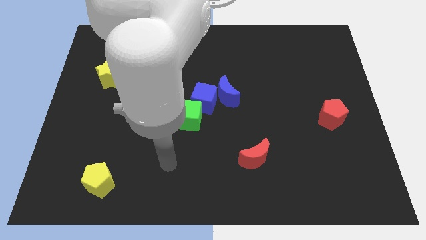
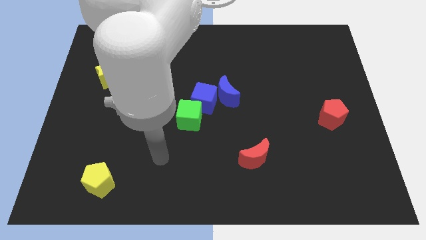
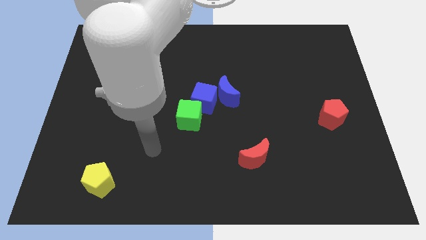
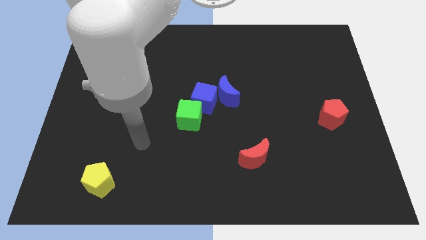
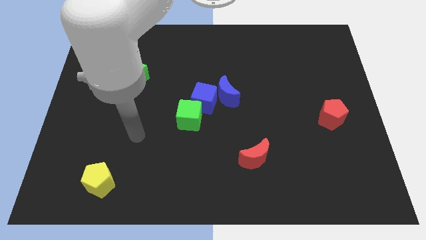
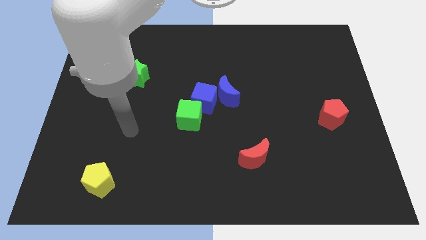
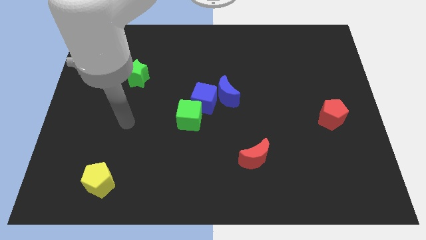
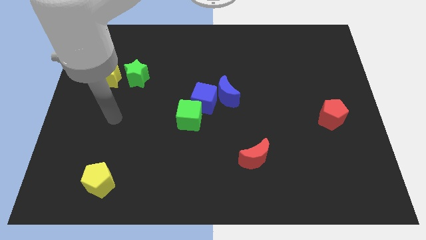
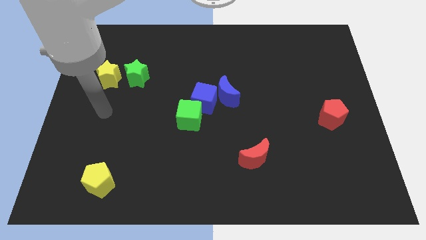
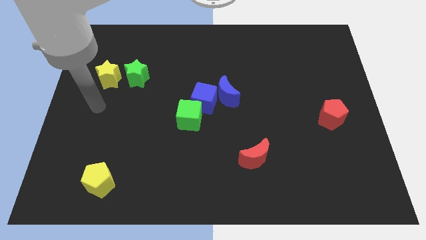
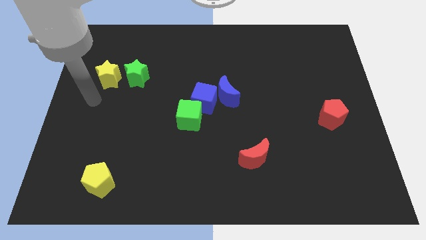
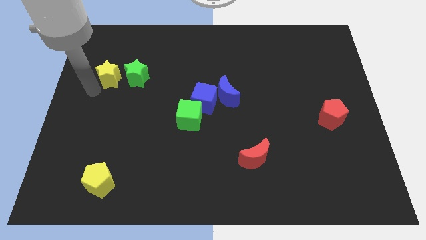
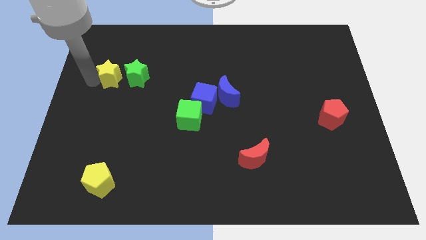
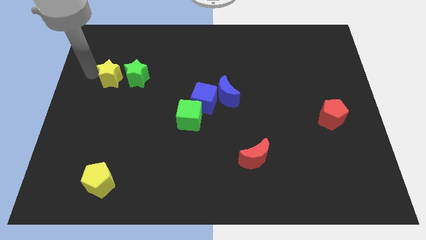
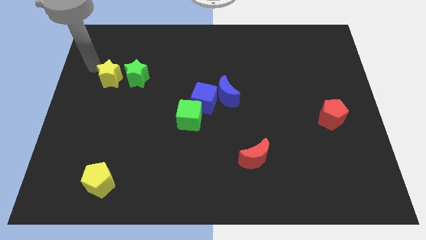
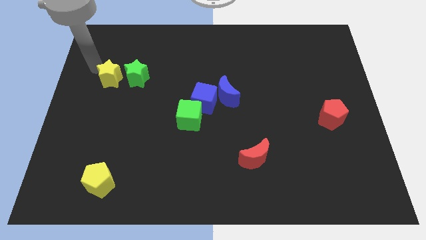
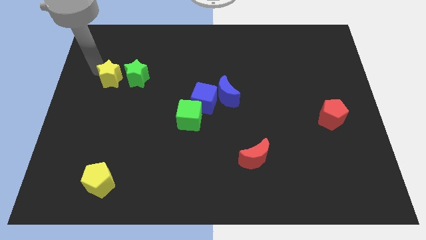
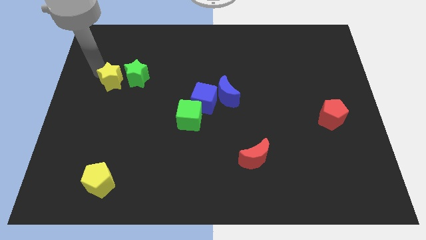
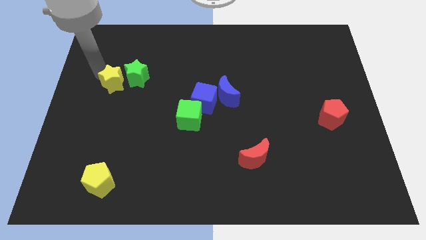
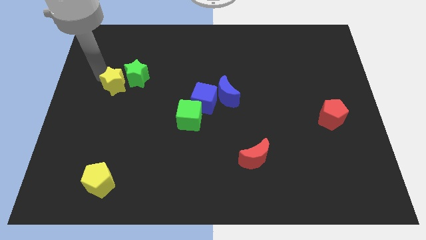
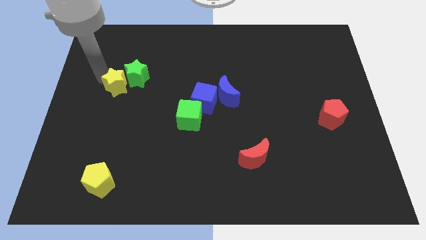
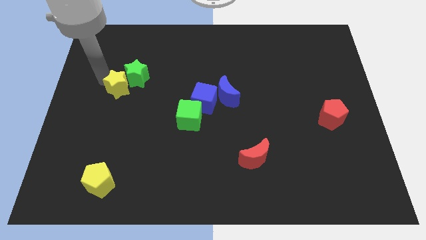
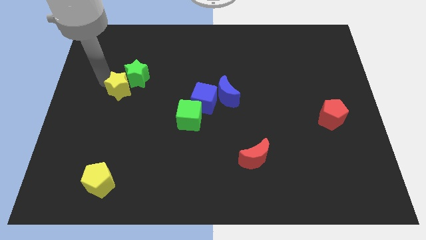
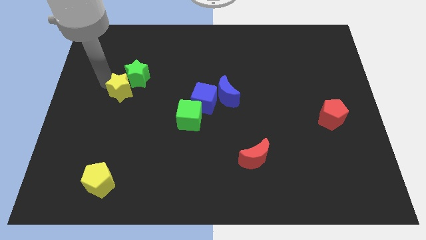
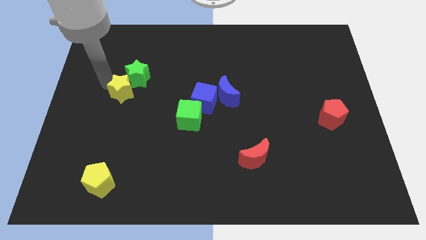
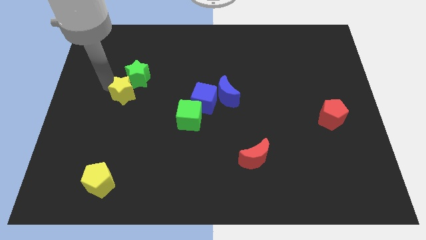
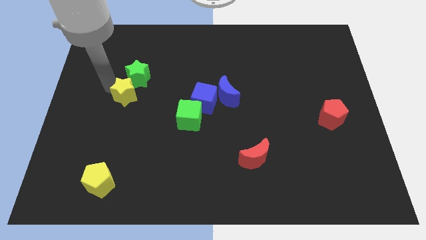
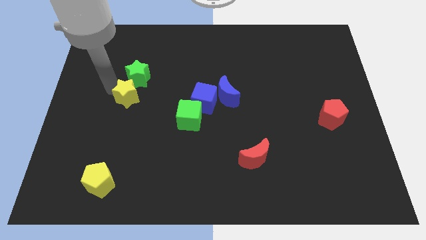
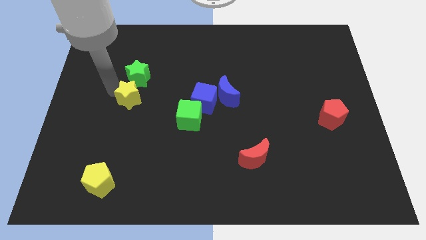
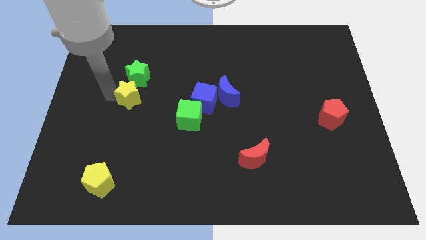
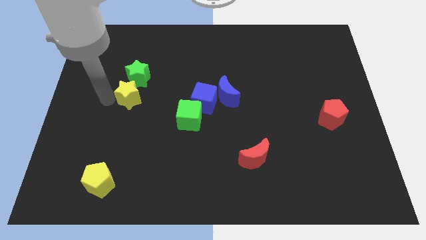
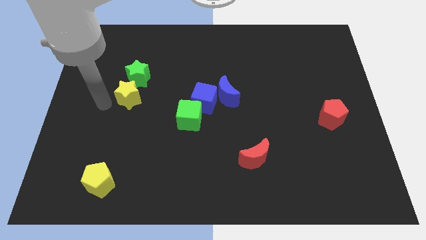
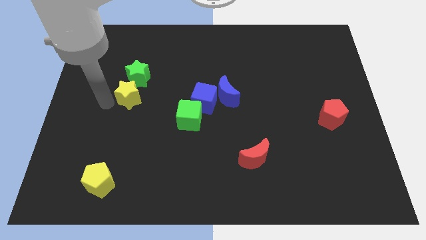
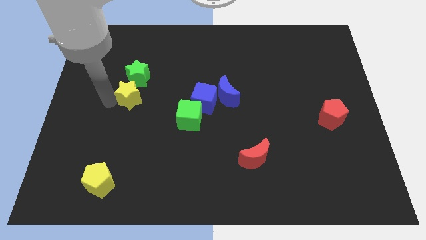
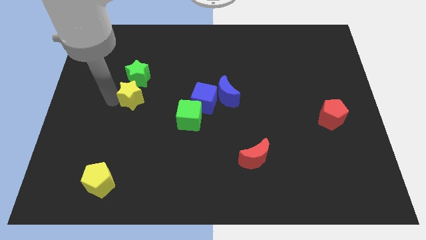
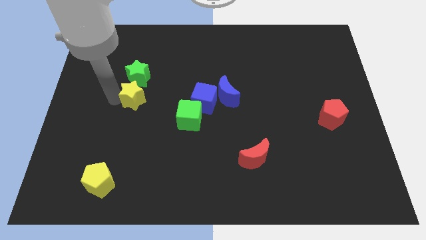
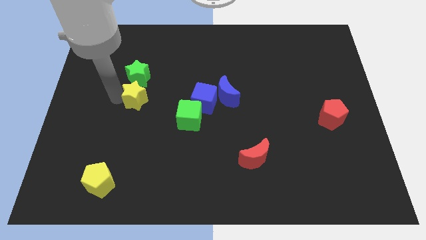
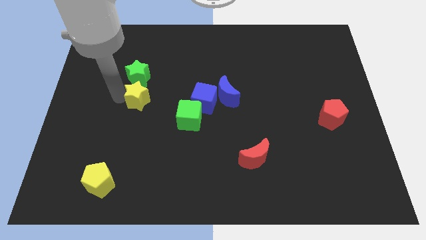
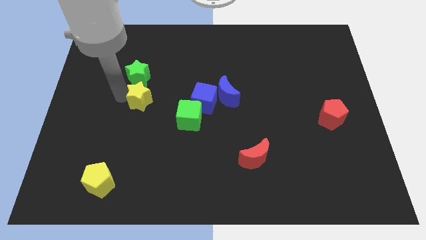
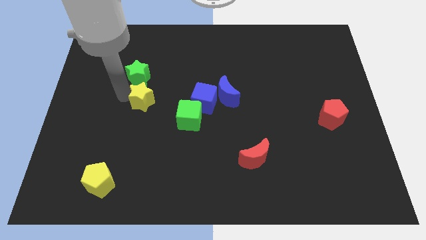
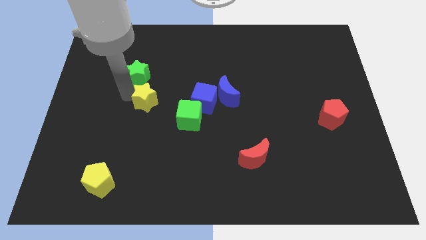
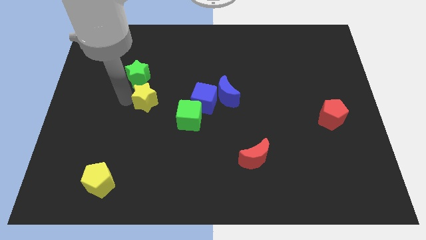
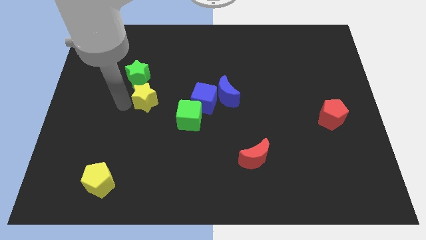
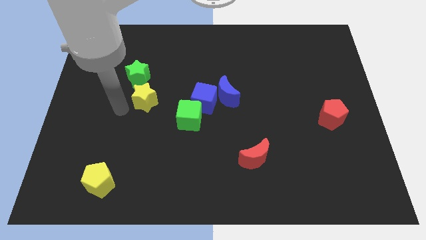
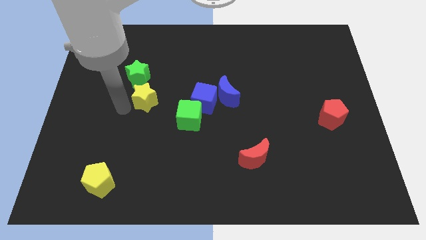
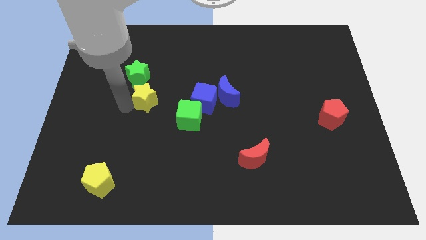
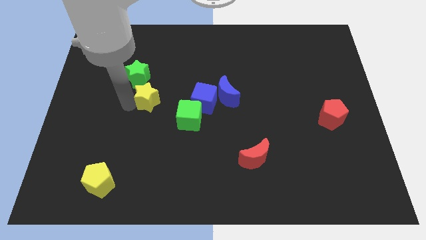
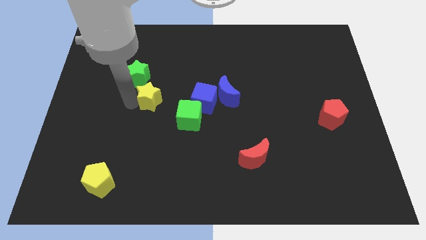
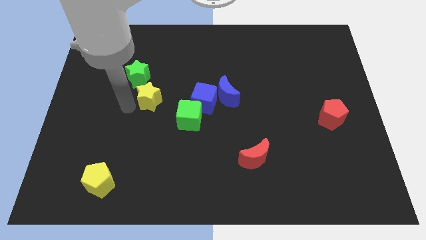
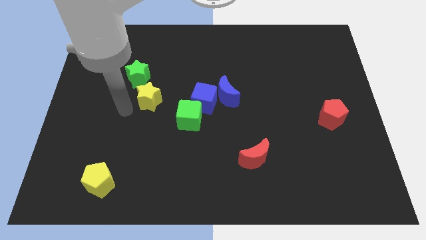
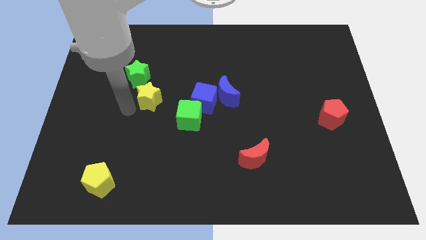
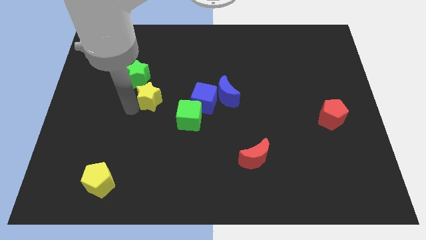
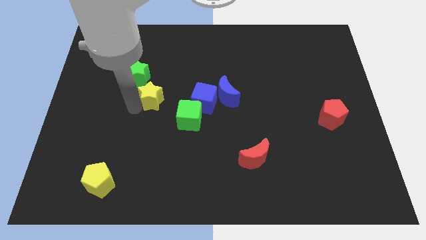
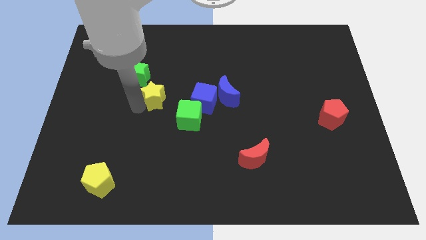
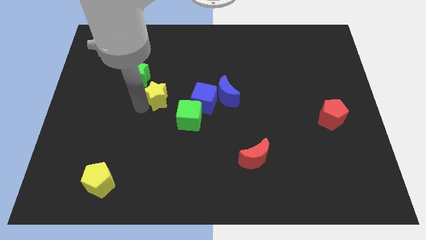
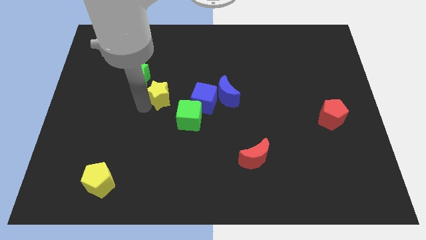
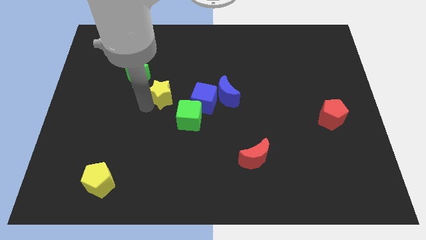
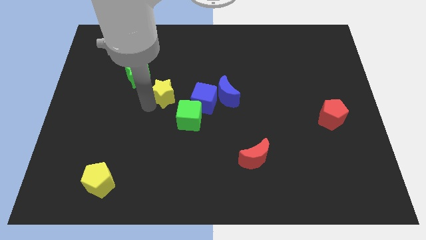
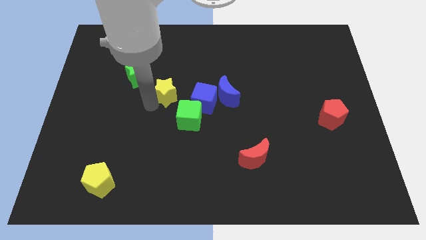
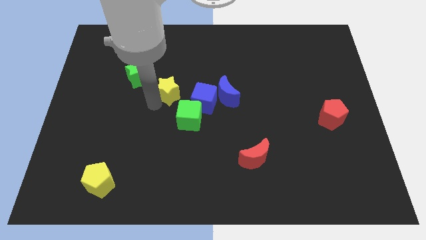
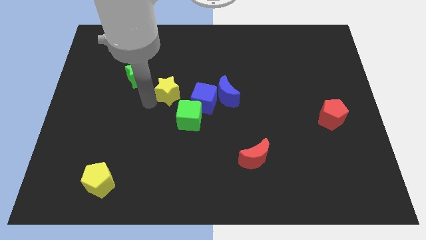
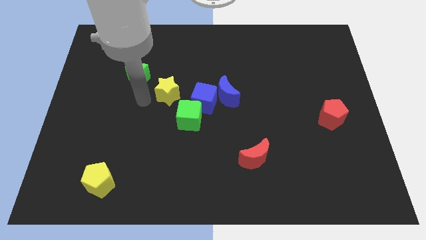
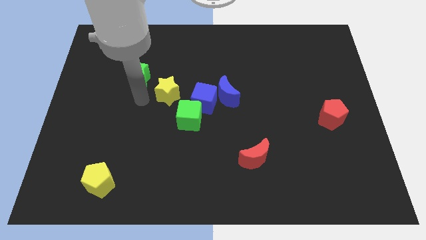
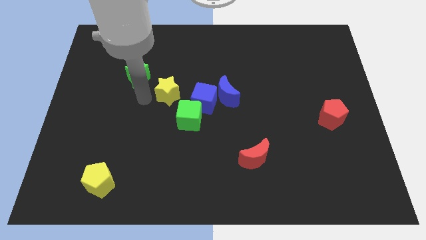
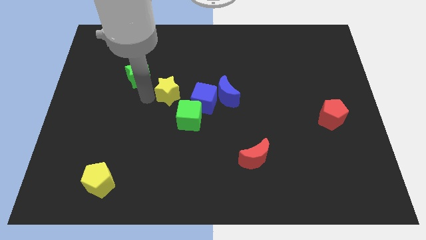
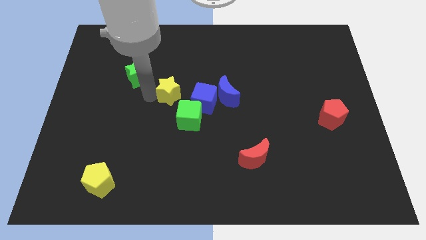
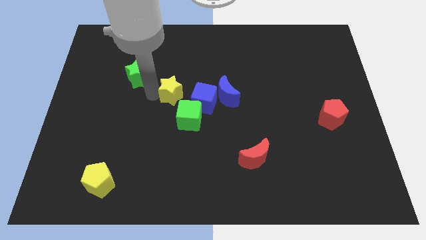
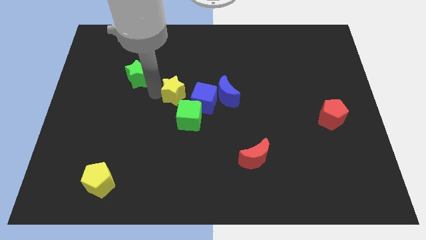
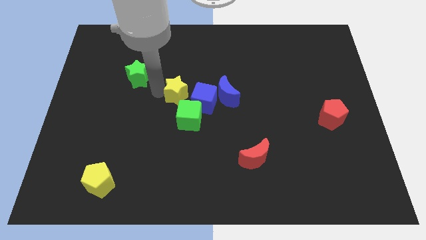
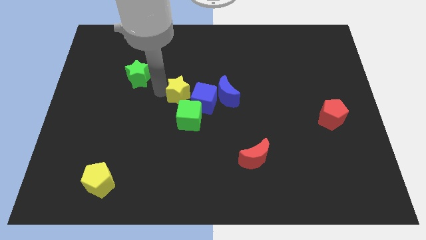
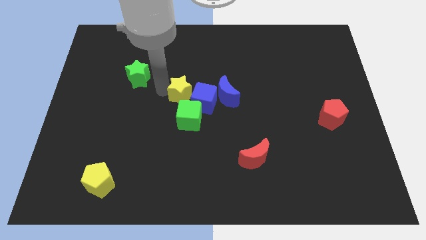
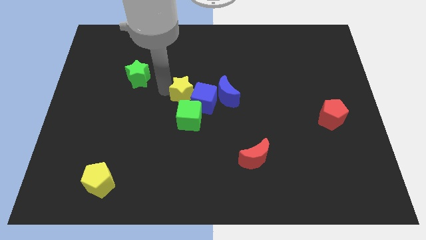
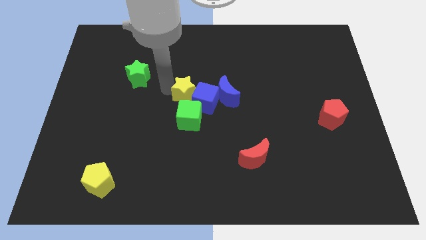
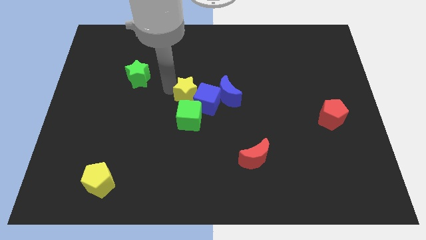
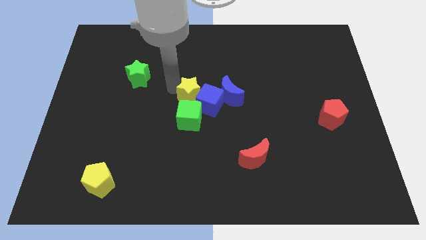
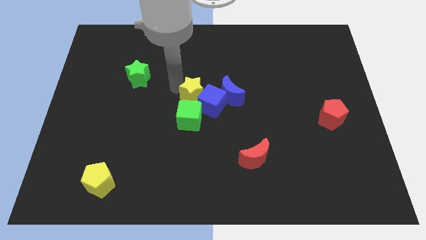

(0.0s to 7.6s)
push the yellow star to the right

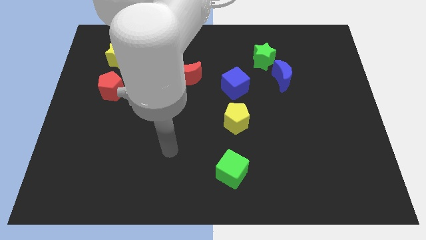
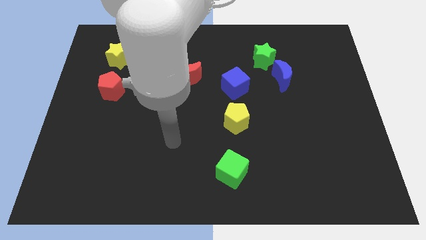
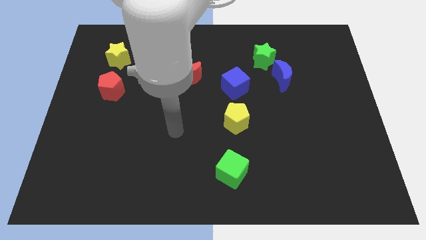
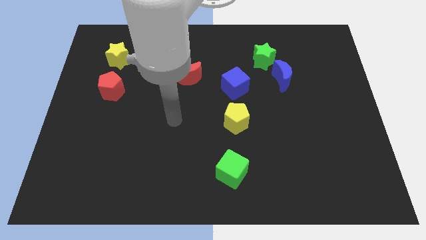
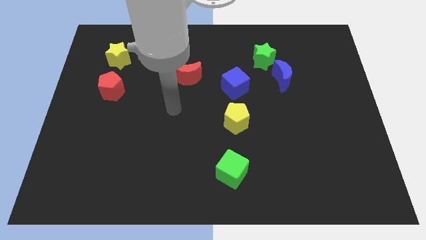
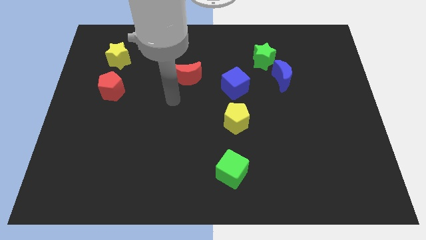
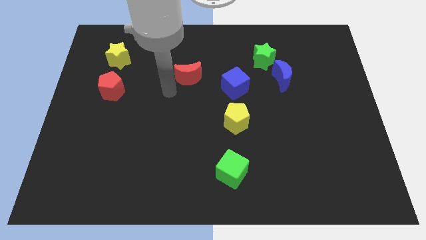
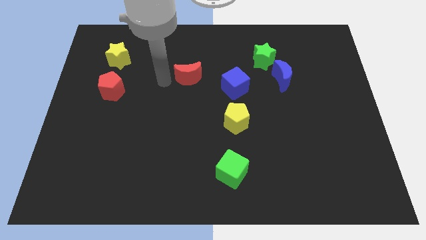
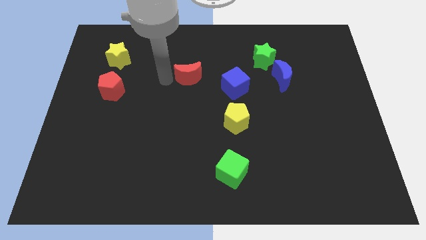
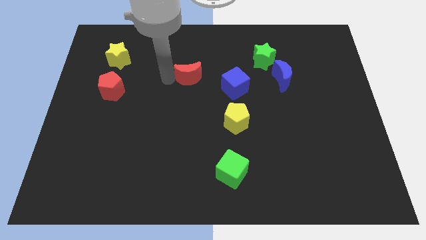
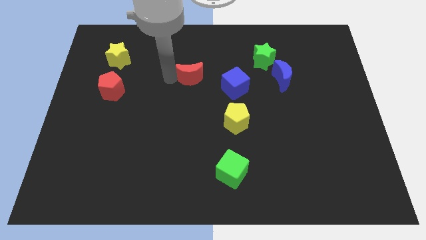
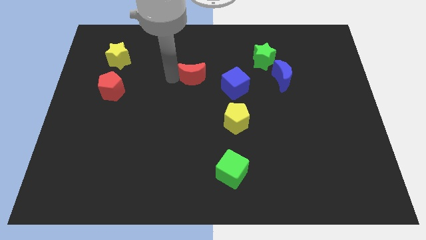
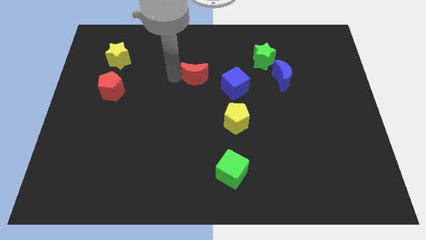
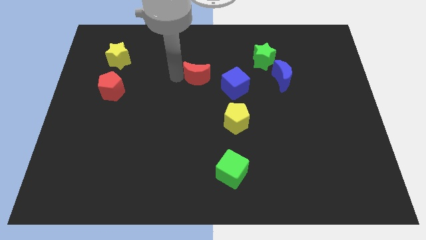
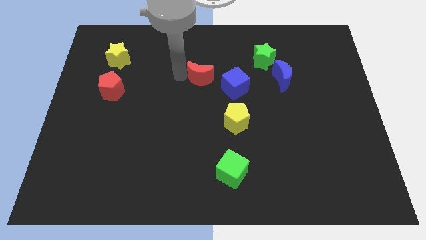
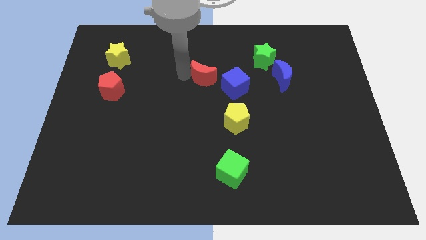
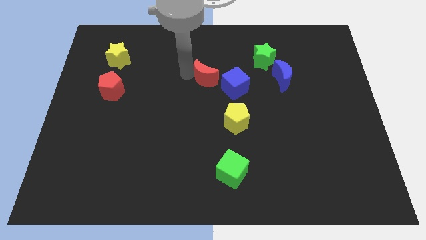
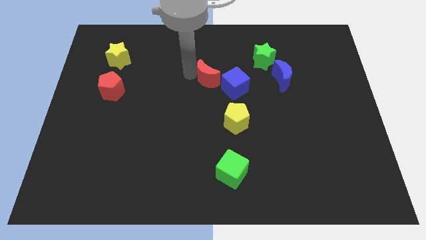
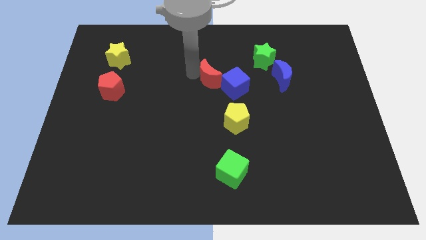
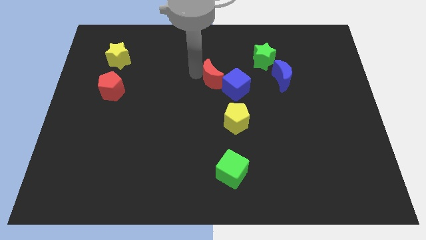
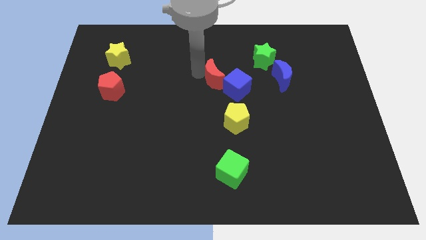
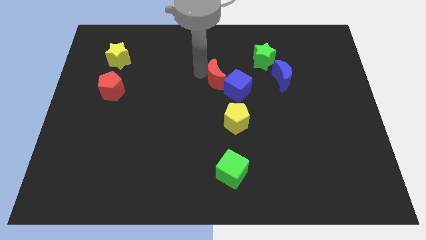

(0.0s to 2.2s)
slightly slide the red moon to the right
